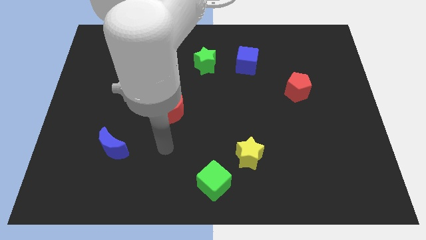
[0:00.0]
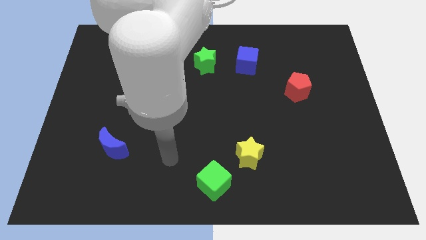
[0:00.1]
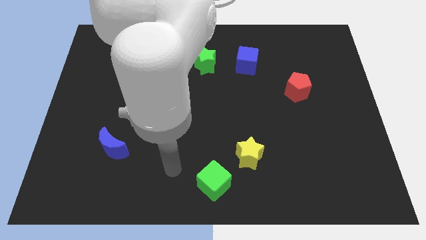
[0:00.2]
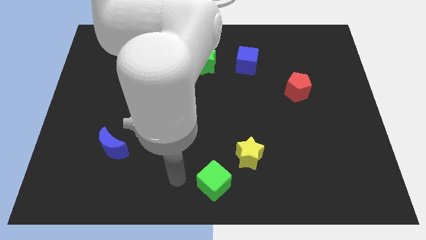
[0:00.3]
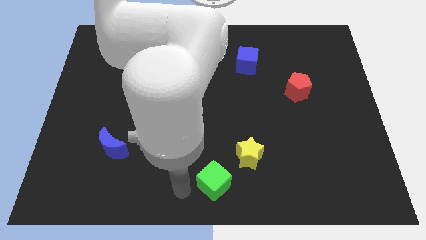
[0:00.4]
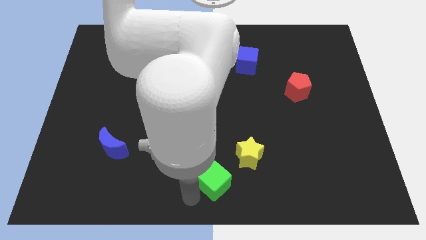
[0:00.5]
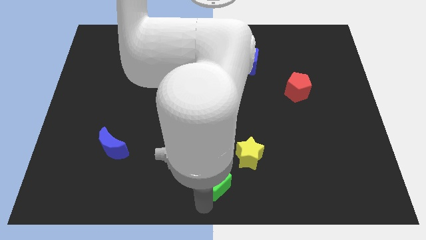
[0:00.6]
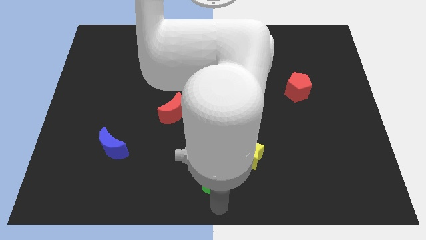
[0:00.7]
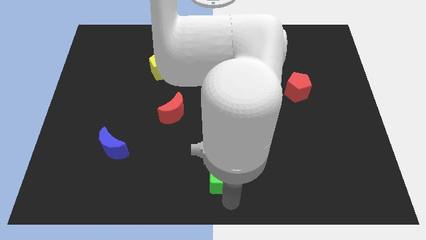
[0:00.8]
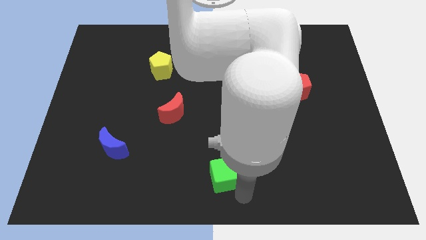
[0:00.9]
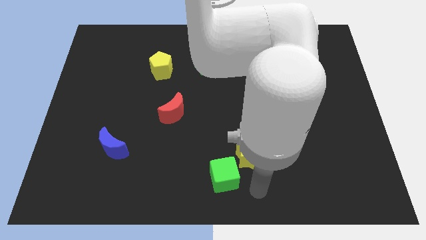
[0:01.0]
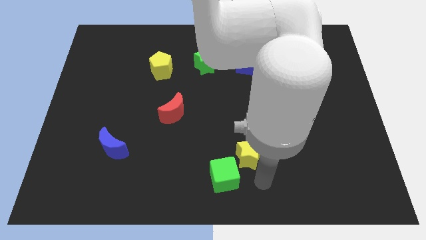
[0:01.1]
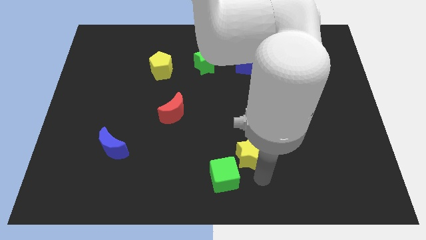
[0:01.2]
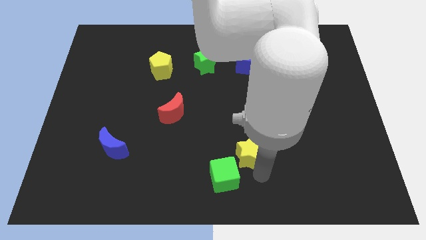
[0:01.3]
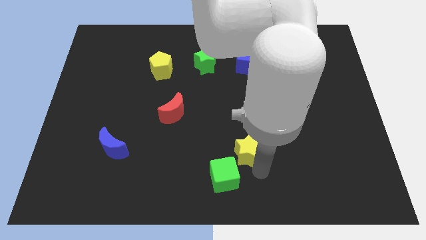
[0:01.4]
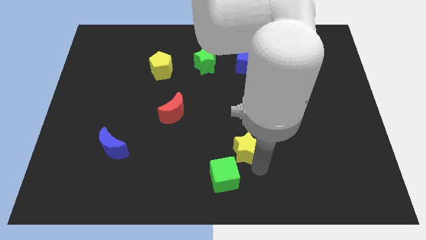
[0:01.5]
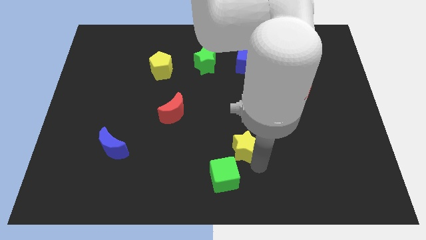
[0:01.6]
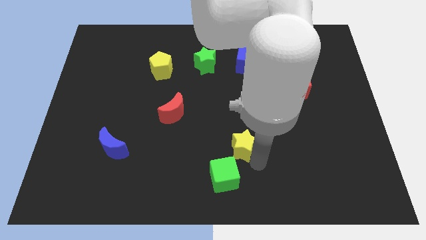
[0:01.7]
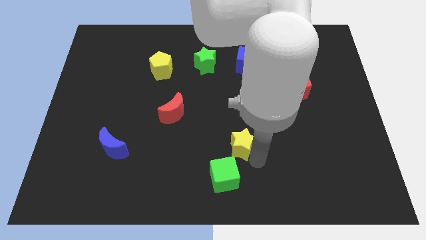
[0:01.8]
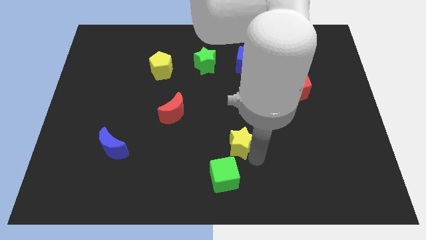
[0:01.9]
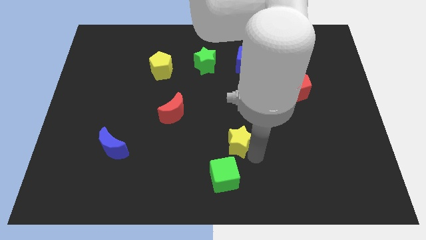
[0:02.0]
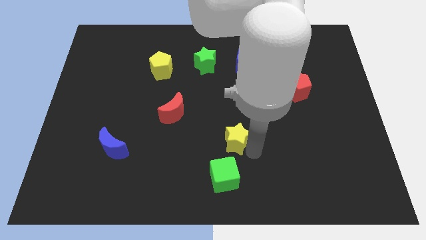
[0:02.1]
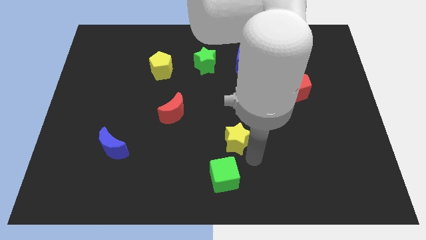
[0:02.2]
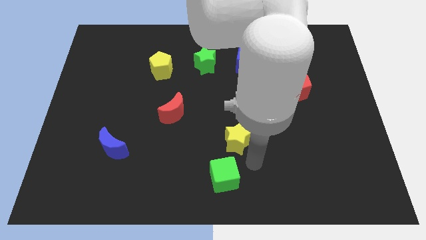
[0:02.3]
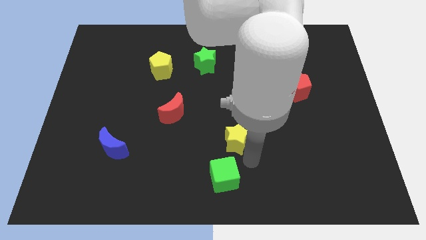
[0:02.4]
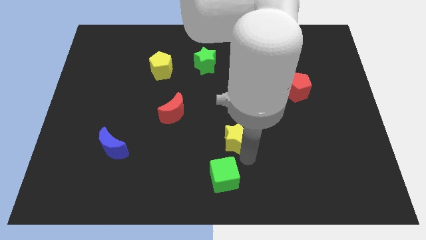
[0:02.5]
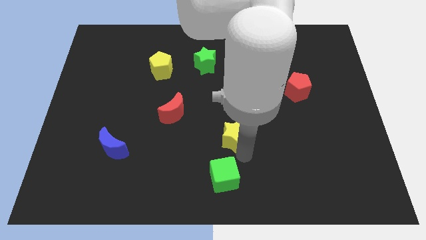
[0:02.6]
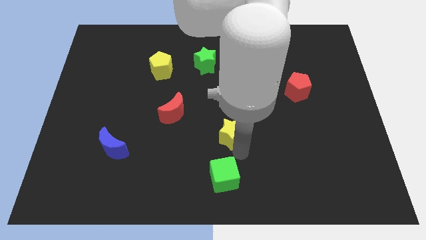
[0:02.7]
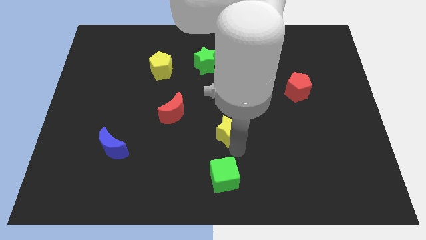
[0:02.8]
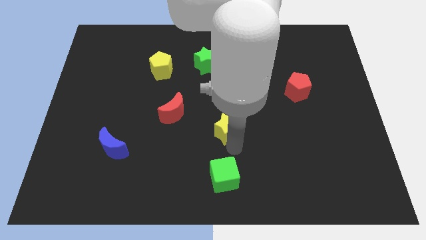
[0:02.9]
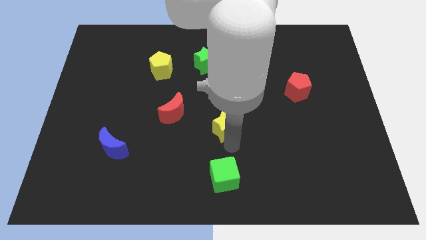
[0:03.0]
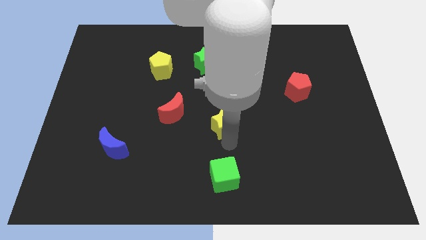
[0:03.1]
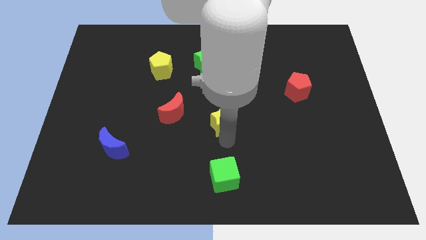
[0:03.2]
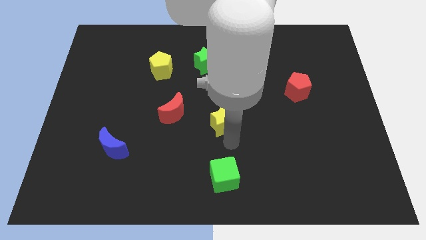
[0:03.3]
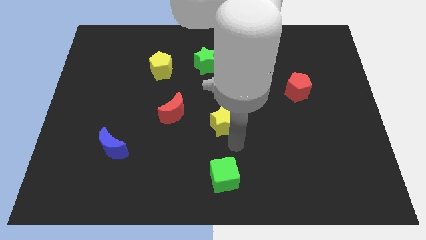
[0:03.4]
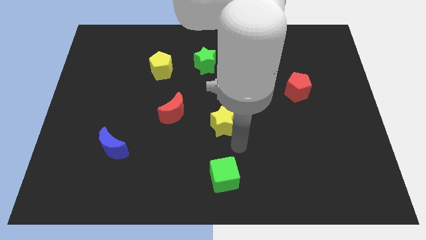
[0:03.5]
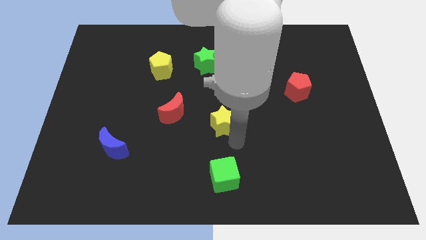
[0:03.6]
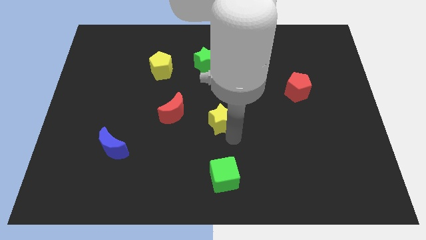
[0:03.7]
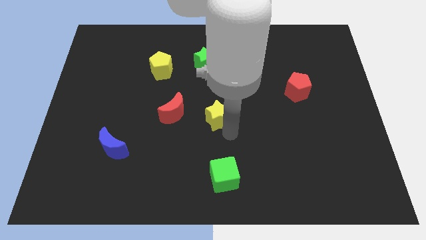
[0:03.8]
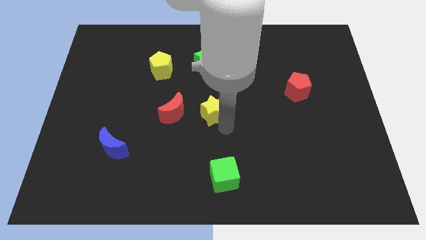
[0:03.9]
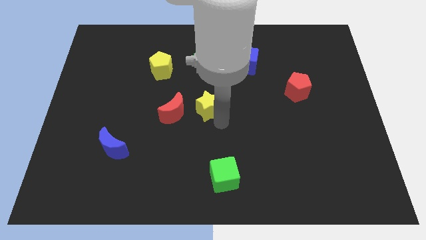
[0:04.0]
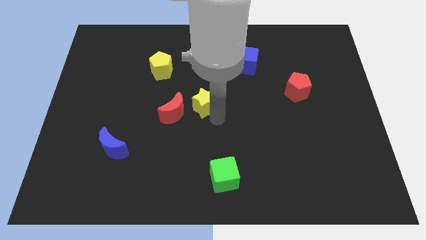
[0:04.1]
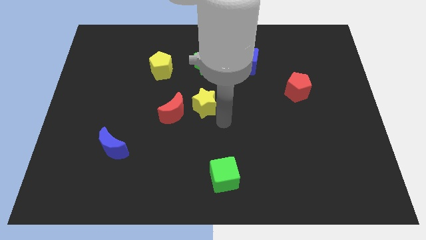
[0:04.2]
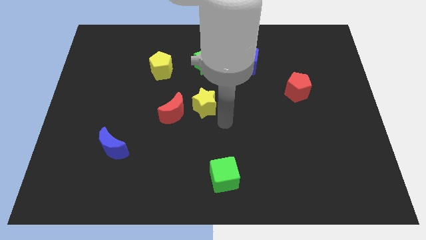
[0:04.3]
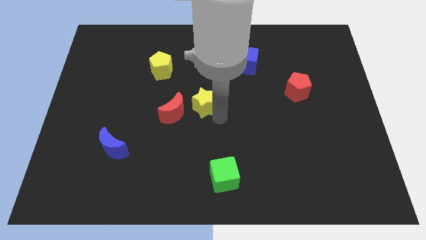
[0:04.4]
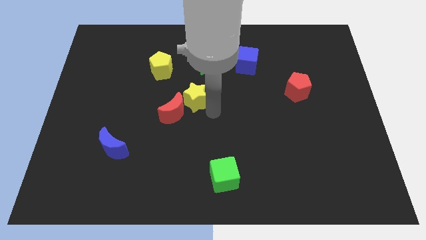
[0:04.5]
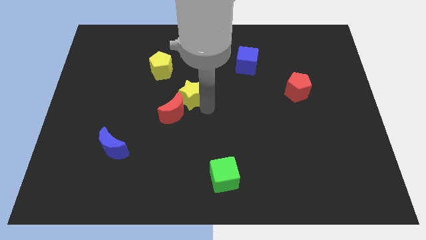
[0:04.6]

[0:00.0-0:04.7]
push the yellow star to the bottom right side of the yellow pentagon

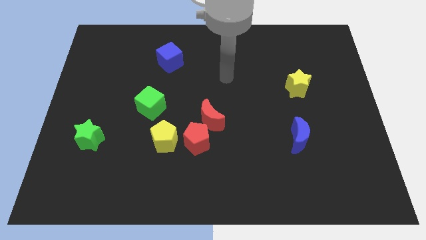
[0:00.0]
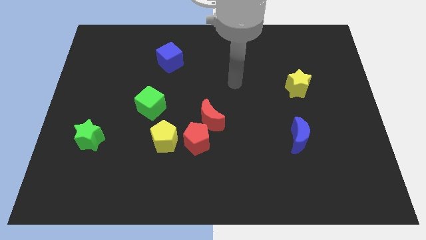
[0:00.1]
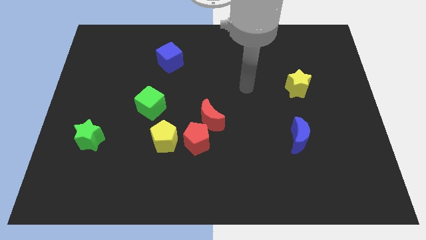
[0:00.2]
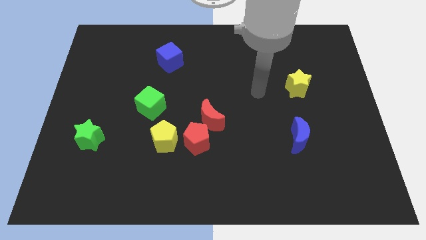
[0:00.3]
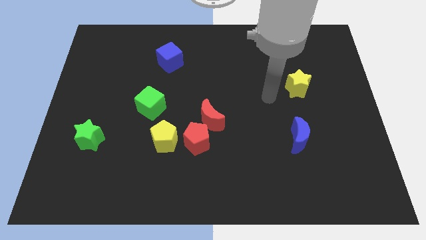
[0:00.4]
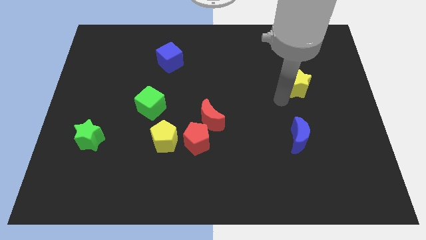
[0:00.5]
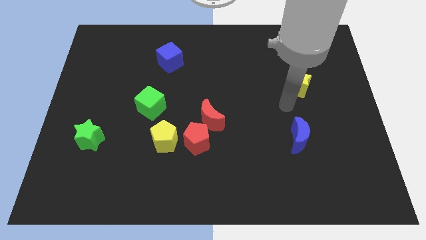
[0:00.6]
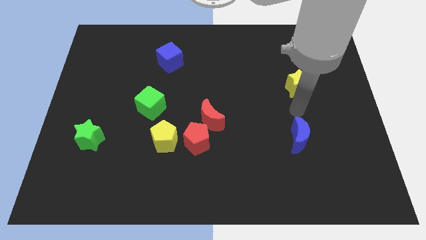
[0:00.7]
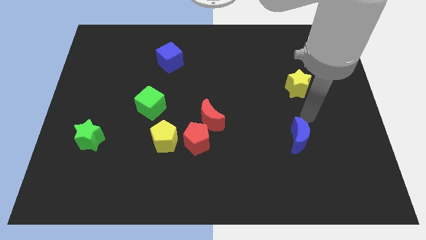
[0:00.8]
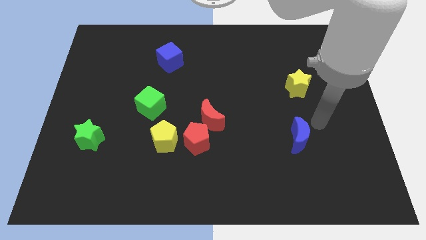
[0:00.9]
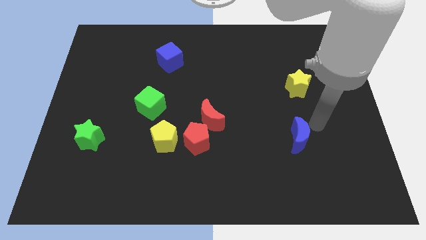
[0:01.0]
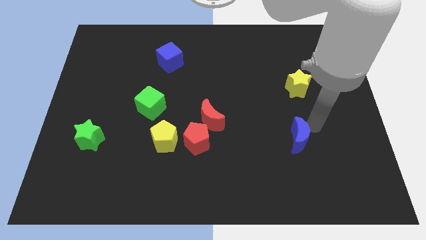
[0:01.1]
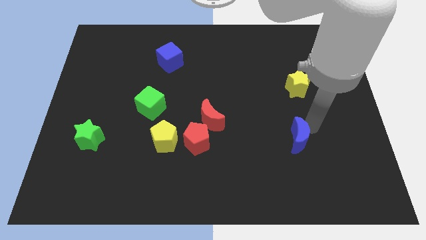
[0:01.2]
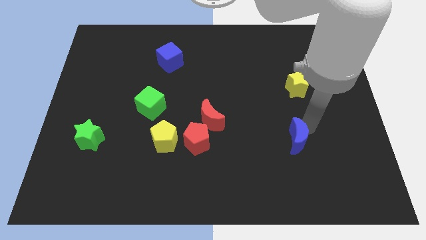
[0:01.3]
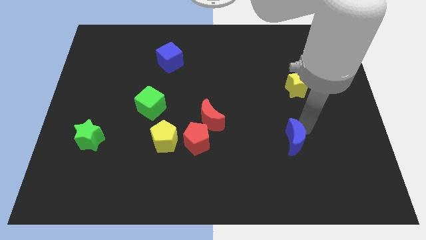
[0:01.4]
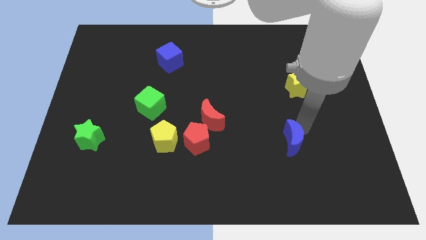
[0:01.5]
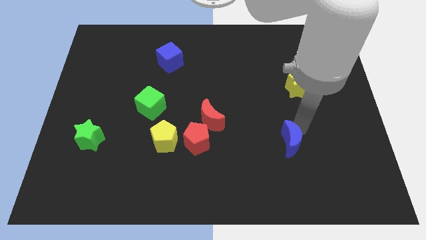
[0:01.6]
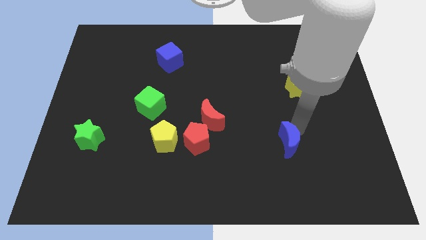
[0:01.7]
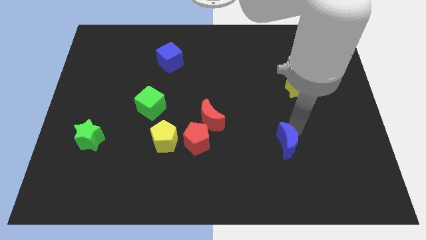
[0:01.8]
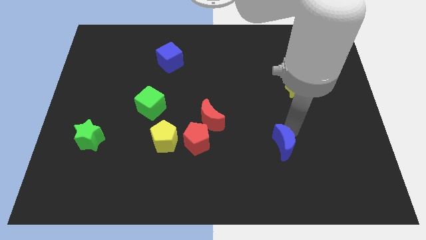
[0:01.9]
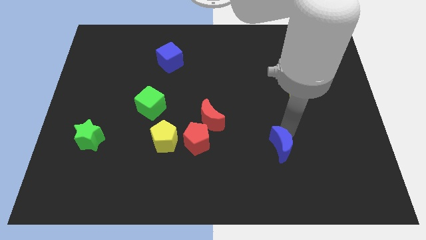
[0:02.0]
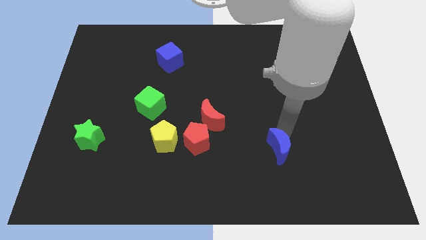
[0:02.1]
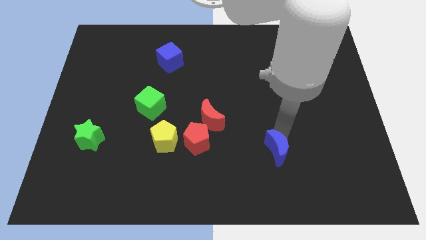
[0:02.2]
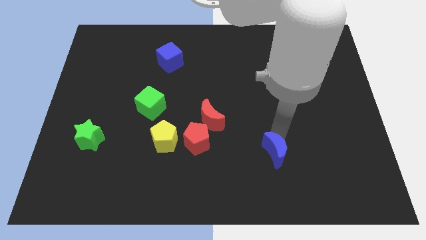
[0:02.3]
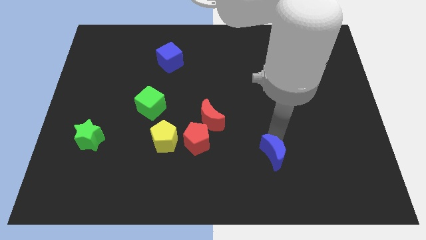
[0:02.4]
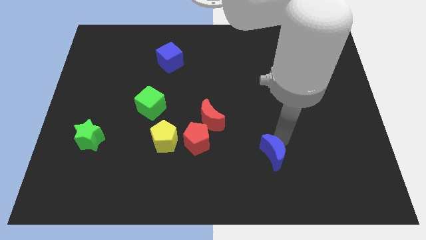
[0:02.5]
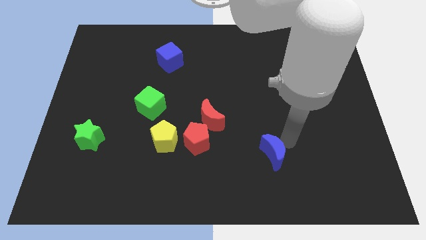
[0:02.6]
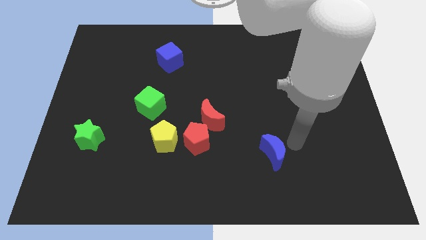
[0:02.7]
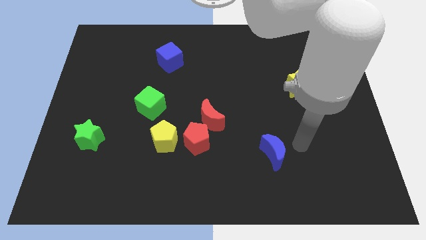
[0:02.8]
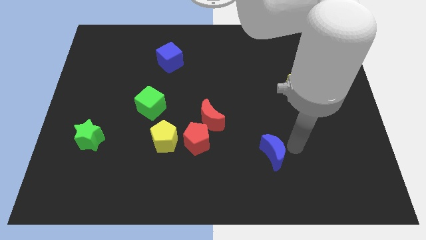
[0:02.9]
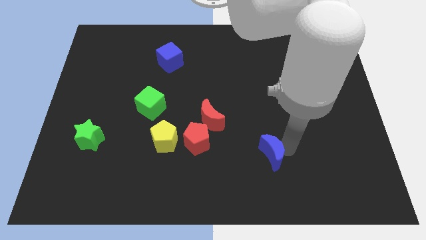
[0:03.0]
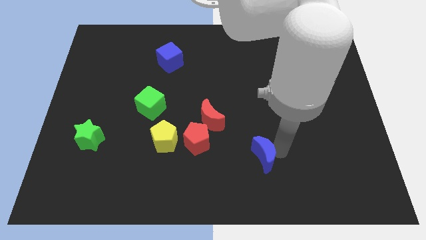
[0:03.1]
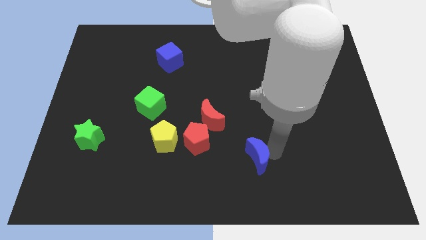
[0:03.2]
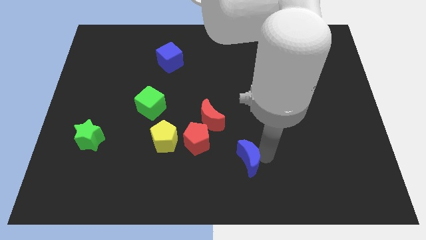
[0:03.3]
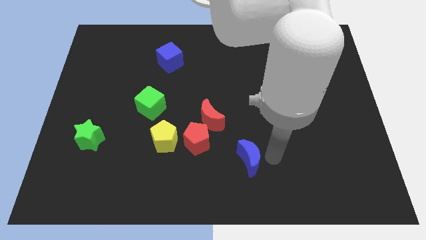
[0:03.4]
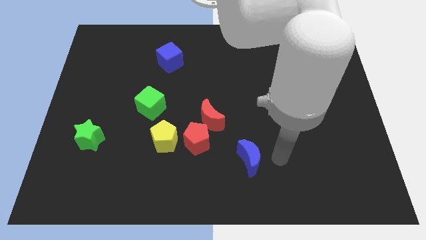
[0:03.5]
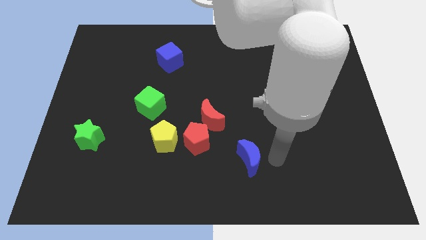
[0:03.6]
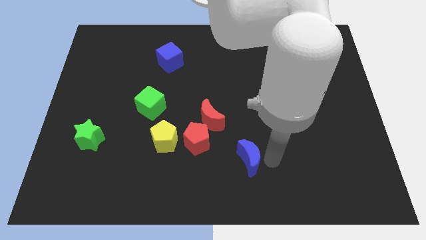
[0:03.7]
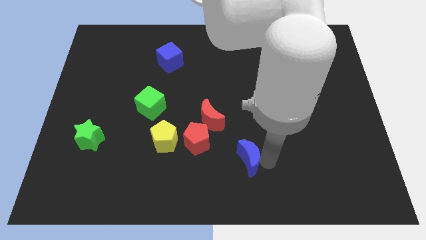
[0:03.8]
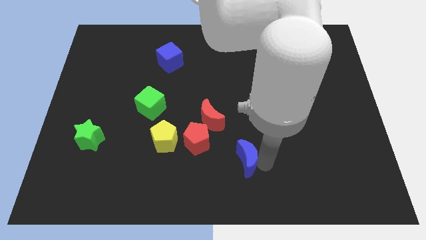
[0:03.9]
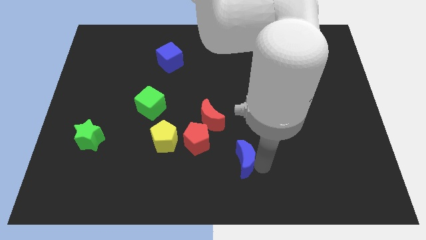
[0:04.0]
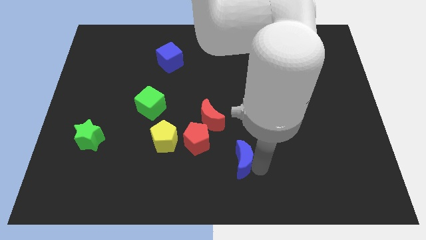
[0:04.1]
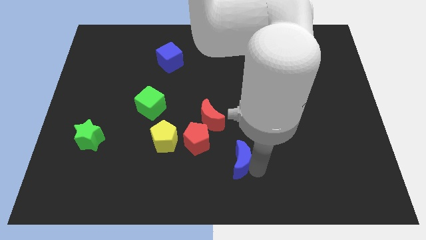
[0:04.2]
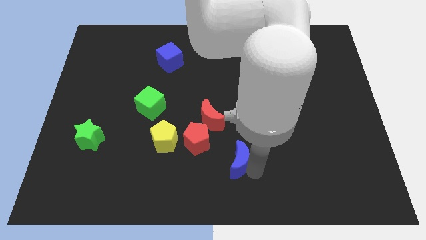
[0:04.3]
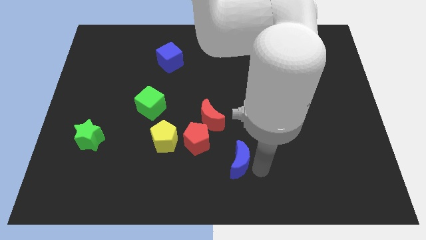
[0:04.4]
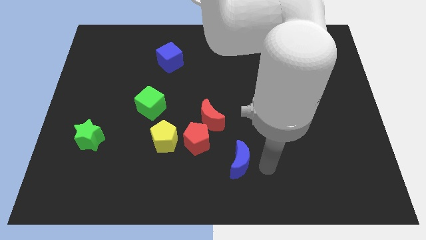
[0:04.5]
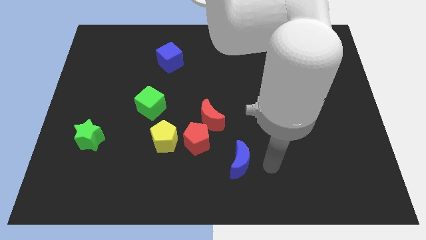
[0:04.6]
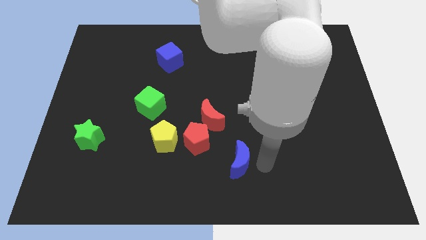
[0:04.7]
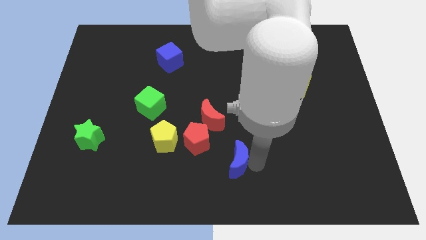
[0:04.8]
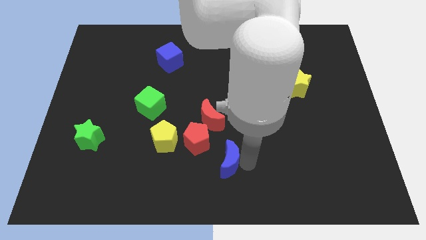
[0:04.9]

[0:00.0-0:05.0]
move the blue moon below the red moon
